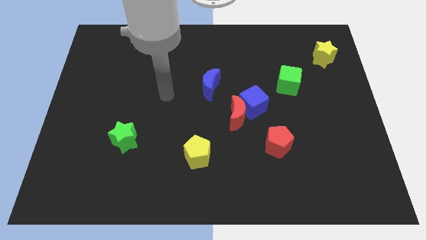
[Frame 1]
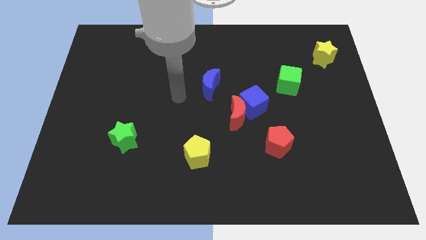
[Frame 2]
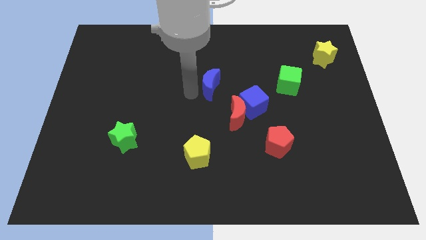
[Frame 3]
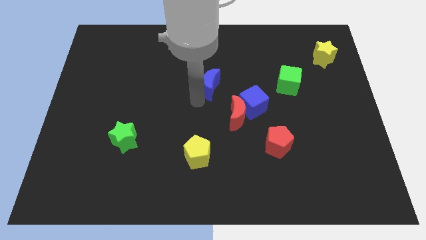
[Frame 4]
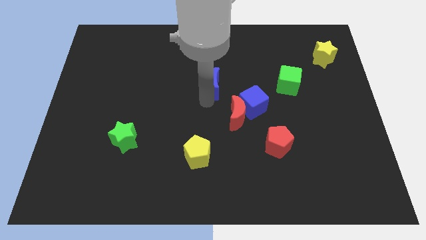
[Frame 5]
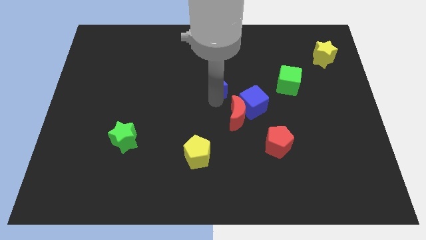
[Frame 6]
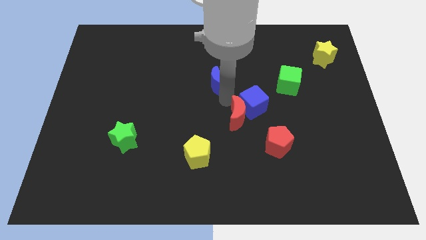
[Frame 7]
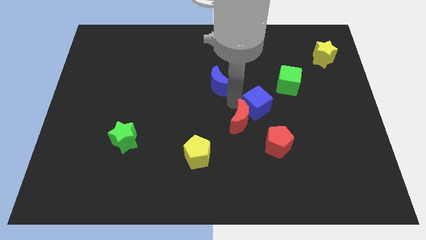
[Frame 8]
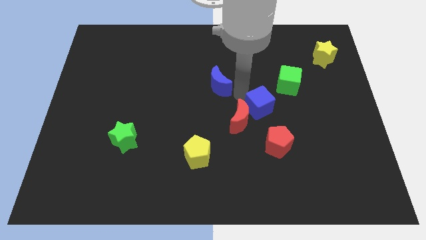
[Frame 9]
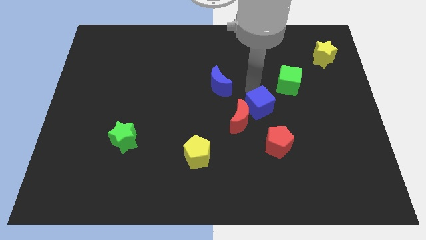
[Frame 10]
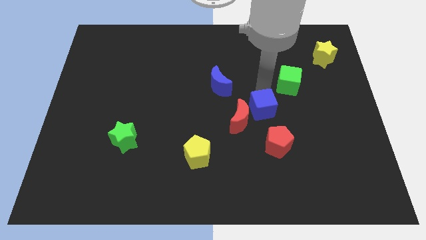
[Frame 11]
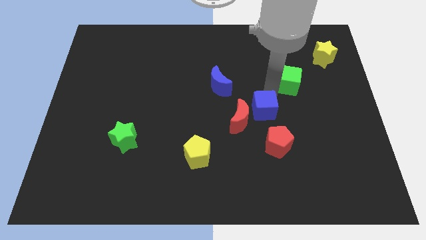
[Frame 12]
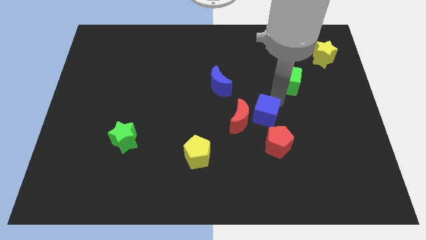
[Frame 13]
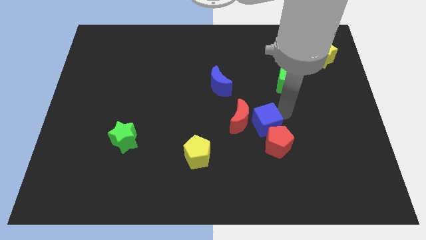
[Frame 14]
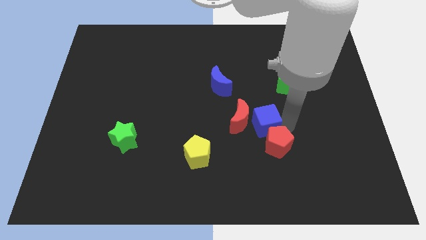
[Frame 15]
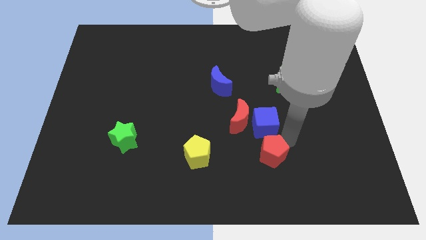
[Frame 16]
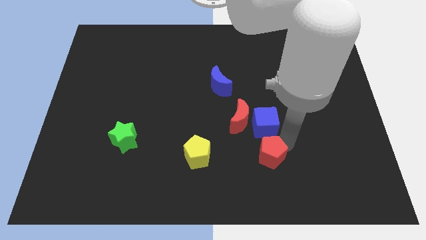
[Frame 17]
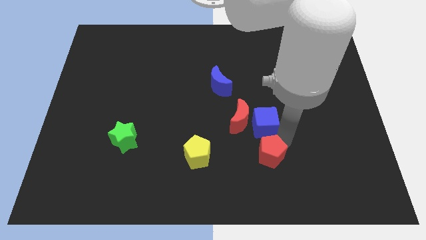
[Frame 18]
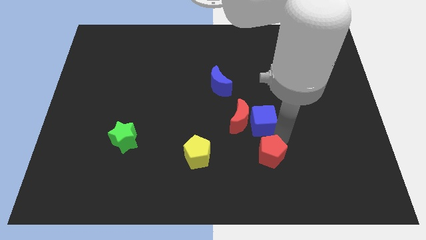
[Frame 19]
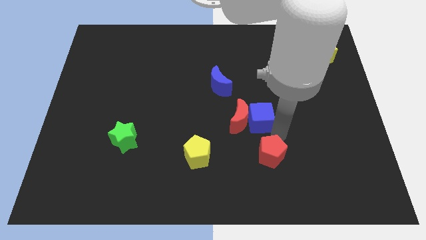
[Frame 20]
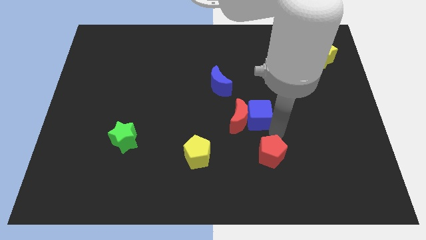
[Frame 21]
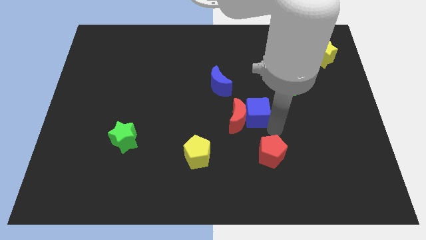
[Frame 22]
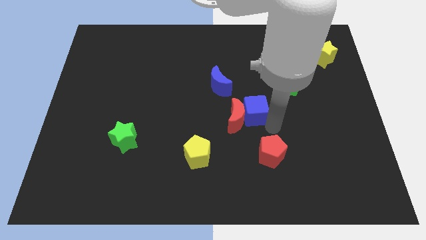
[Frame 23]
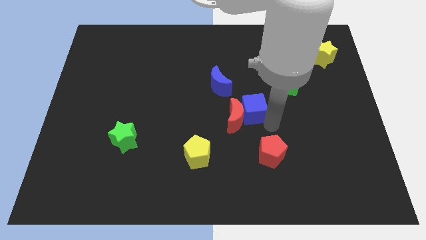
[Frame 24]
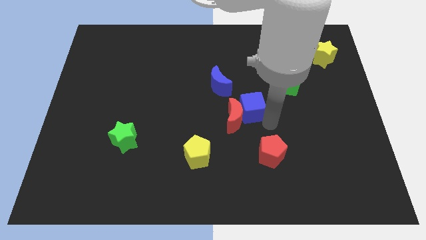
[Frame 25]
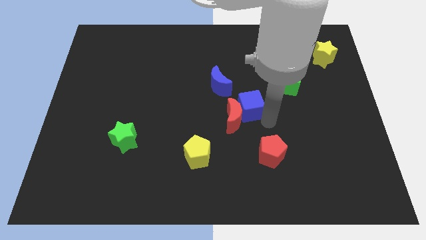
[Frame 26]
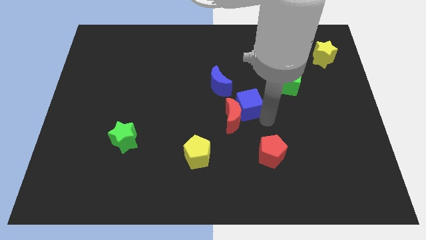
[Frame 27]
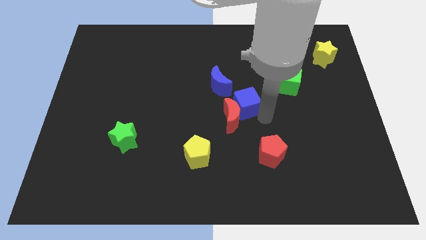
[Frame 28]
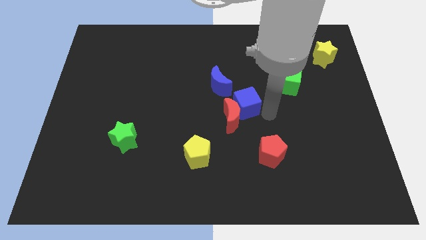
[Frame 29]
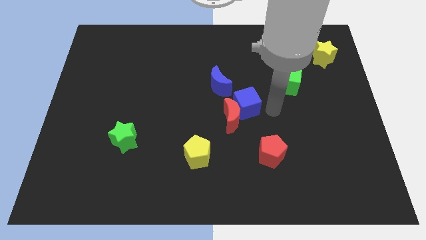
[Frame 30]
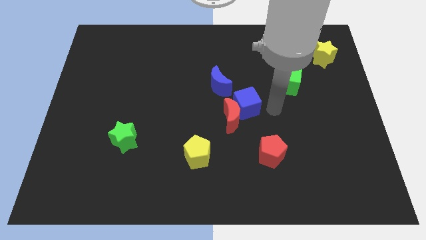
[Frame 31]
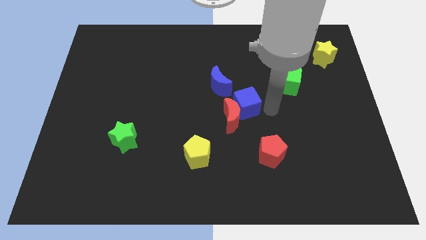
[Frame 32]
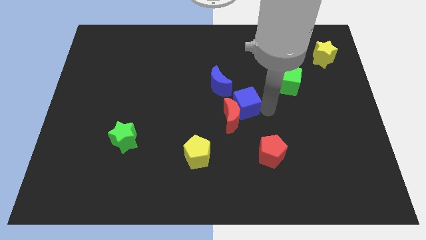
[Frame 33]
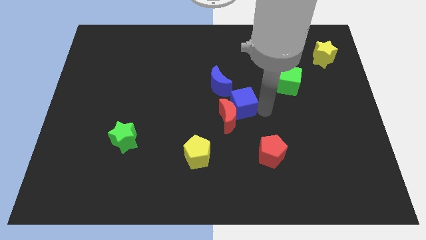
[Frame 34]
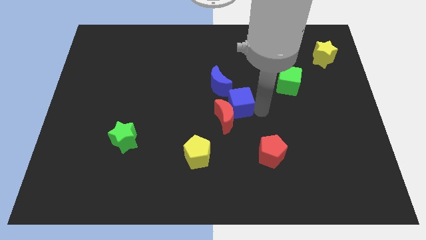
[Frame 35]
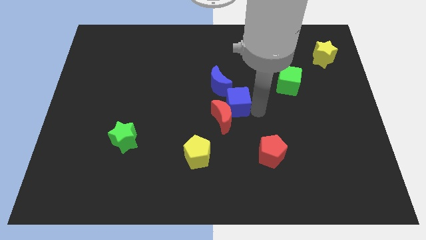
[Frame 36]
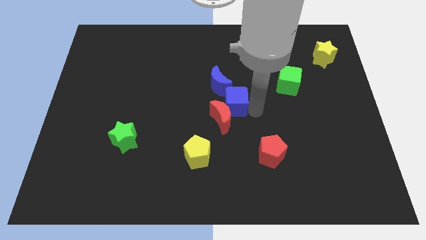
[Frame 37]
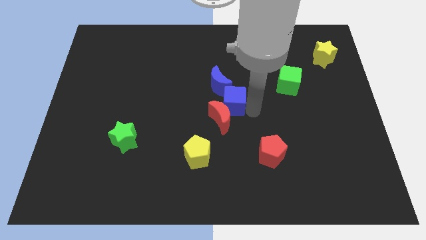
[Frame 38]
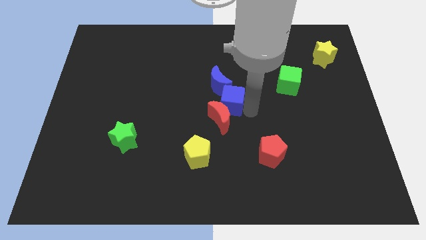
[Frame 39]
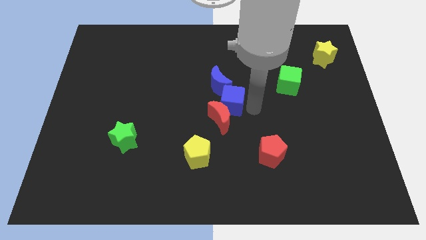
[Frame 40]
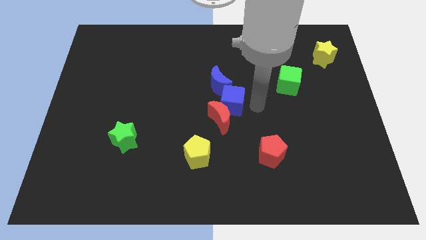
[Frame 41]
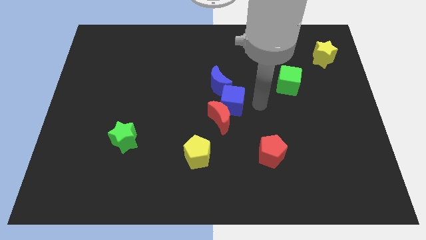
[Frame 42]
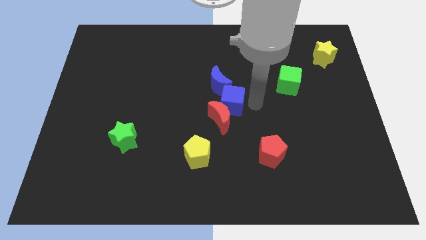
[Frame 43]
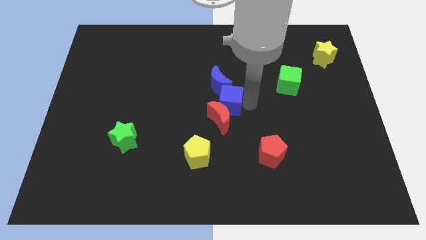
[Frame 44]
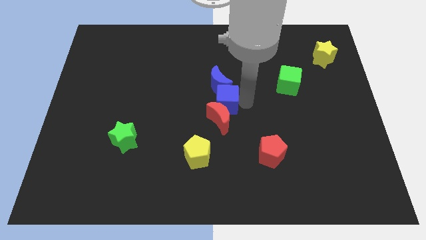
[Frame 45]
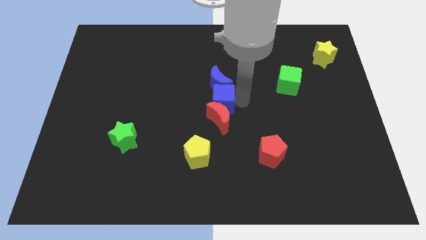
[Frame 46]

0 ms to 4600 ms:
move the blue cube a little bit left

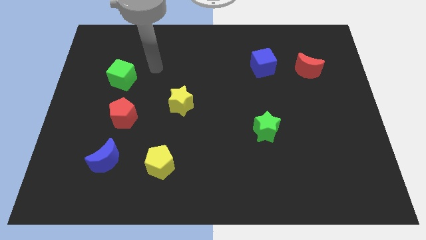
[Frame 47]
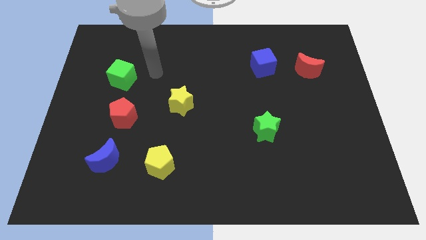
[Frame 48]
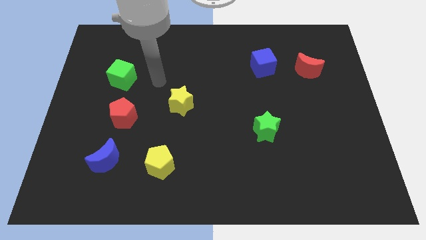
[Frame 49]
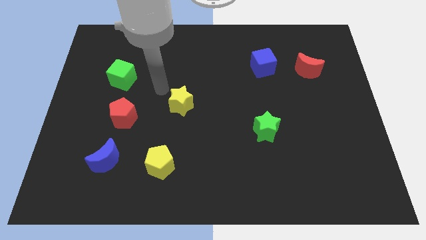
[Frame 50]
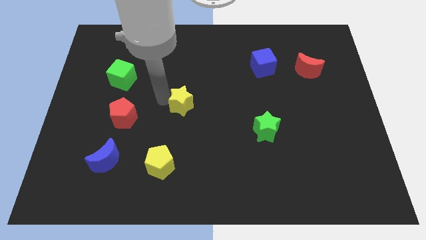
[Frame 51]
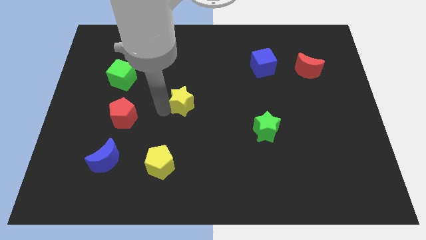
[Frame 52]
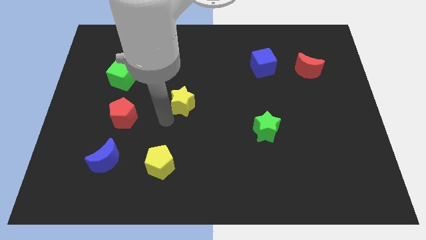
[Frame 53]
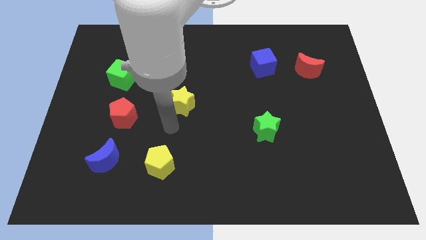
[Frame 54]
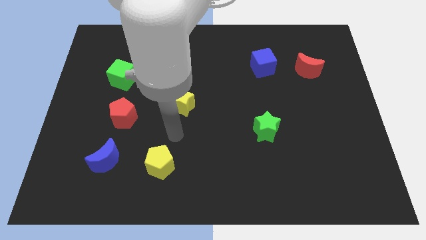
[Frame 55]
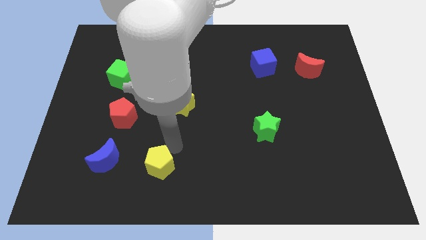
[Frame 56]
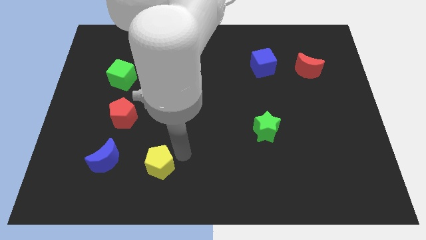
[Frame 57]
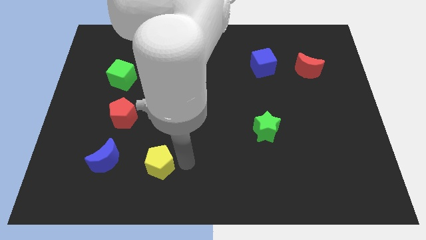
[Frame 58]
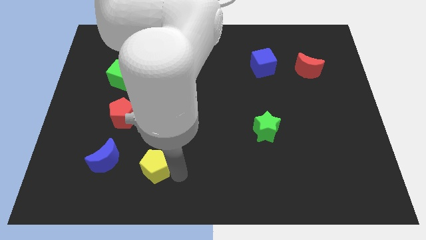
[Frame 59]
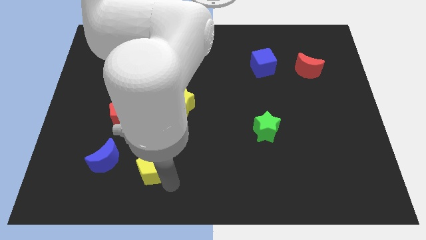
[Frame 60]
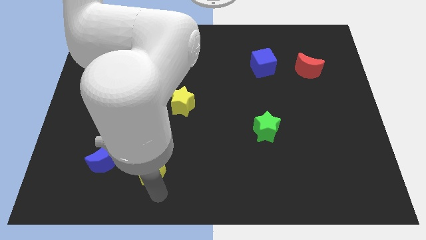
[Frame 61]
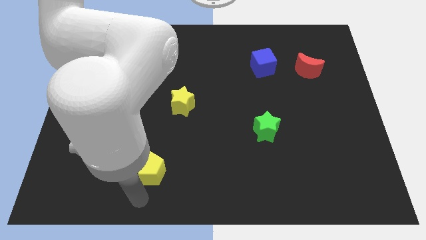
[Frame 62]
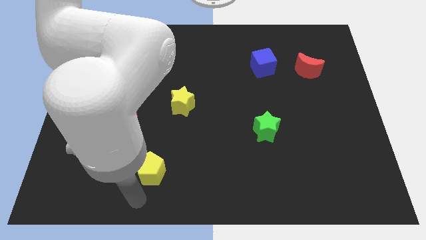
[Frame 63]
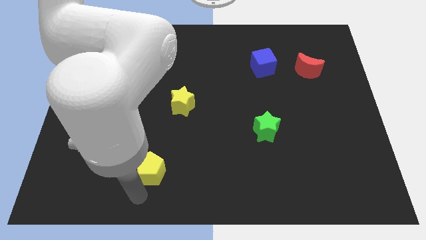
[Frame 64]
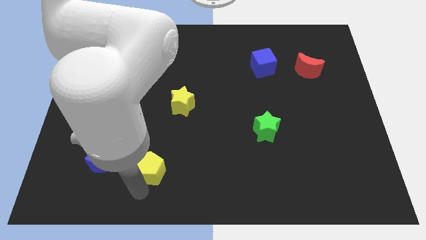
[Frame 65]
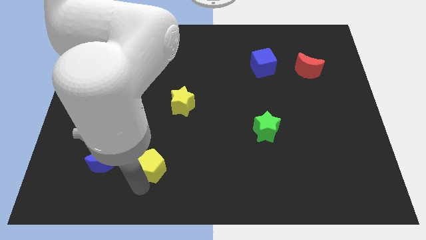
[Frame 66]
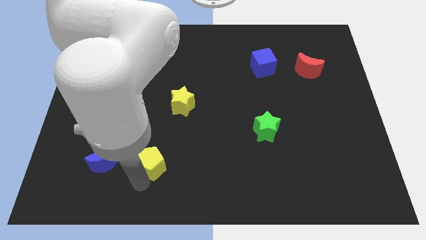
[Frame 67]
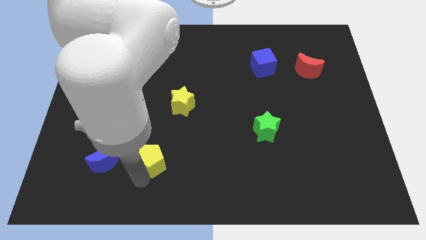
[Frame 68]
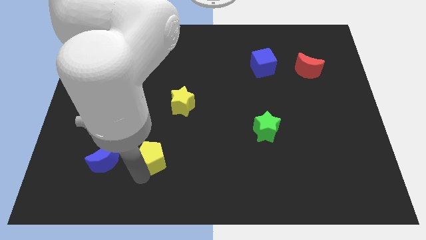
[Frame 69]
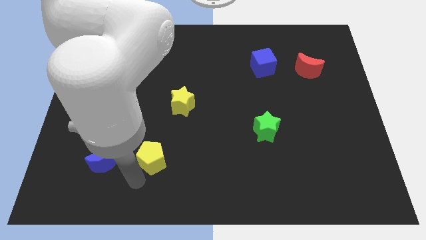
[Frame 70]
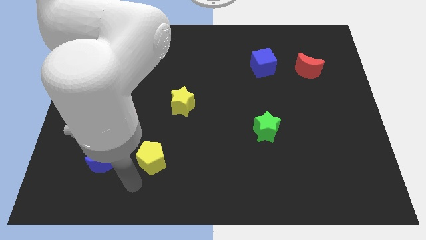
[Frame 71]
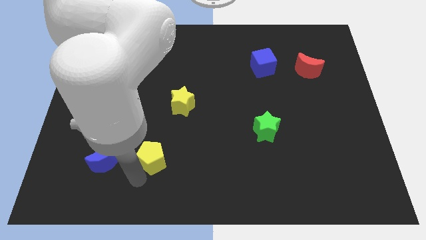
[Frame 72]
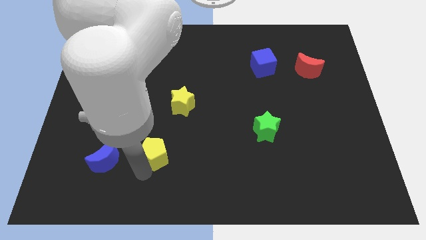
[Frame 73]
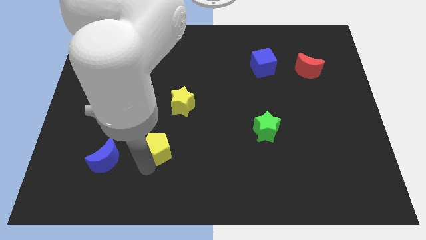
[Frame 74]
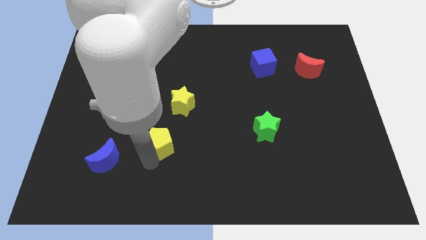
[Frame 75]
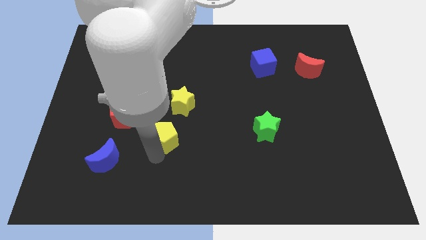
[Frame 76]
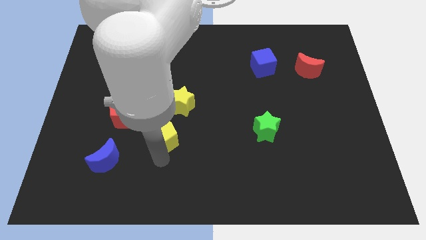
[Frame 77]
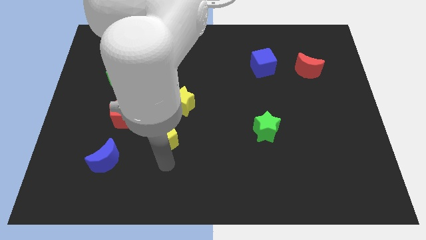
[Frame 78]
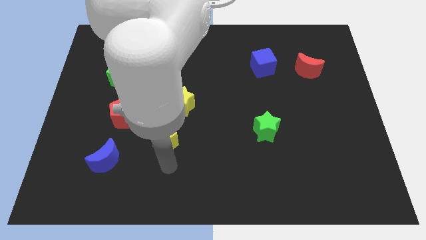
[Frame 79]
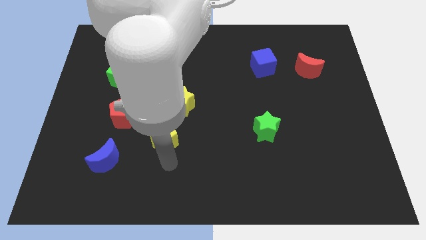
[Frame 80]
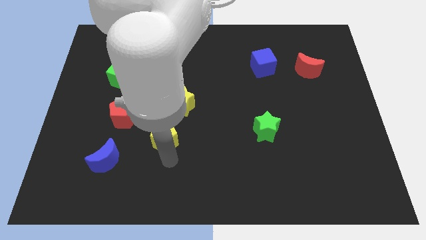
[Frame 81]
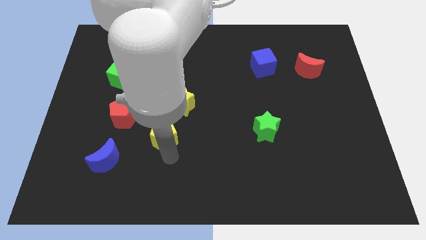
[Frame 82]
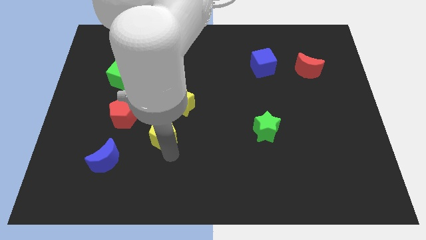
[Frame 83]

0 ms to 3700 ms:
slightly move the yellow pentagon up
